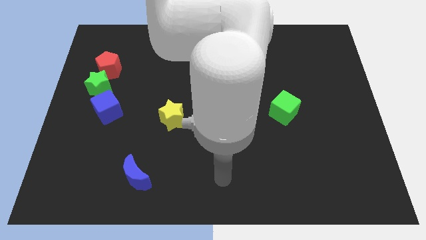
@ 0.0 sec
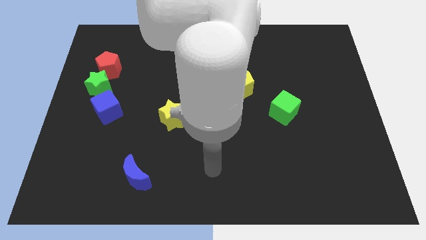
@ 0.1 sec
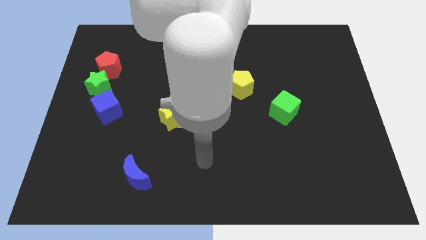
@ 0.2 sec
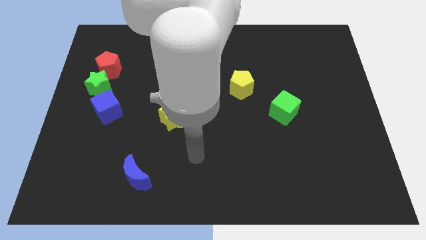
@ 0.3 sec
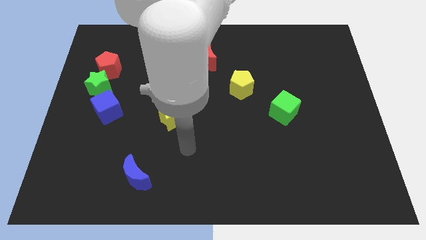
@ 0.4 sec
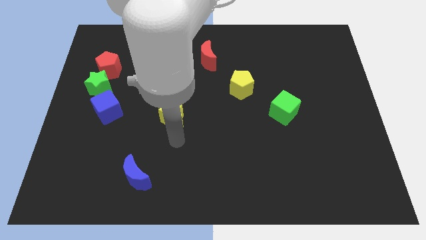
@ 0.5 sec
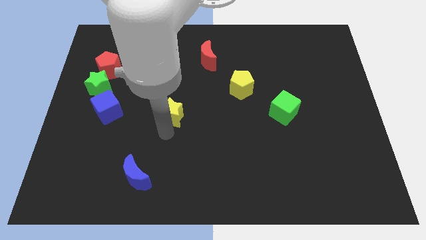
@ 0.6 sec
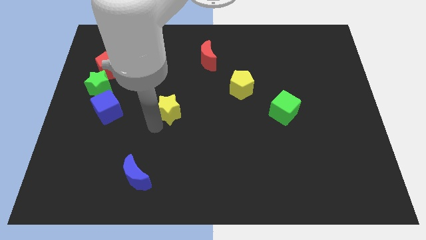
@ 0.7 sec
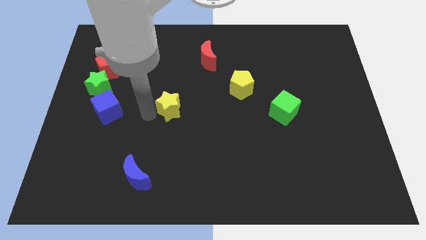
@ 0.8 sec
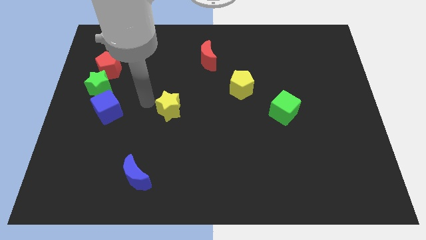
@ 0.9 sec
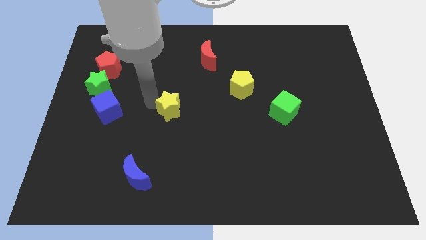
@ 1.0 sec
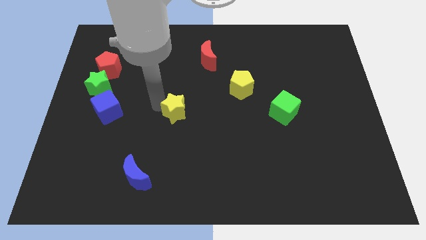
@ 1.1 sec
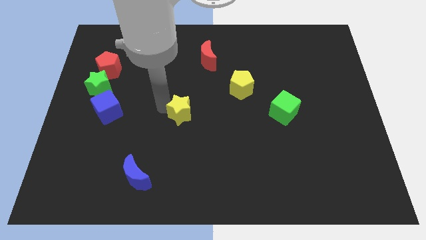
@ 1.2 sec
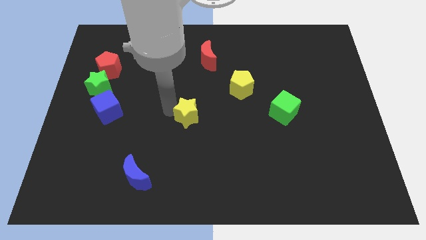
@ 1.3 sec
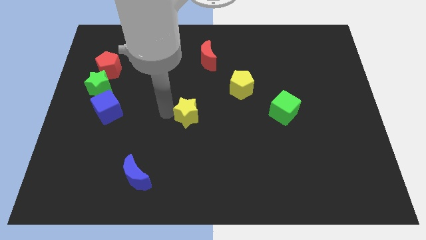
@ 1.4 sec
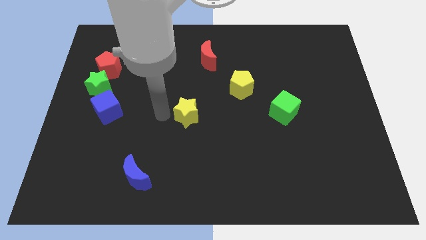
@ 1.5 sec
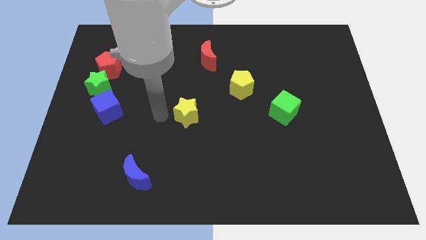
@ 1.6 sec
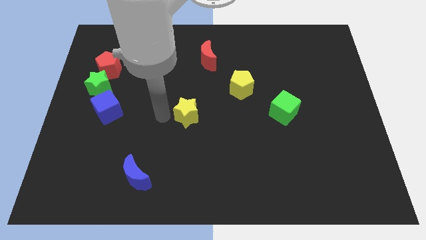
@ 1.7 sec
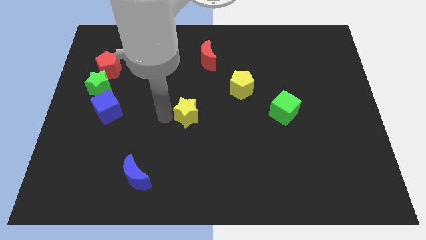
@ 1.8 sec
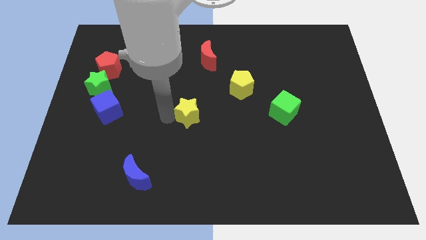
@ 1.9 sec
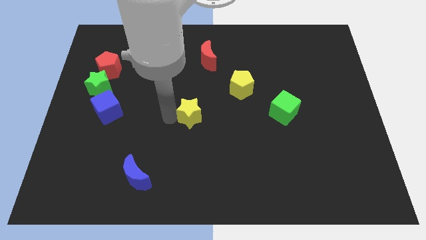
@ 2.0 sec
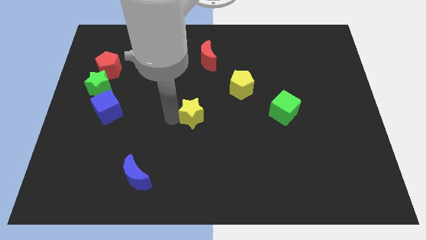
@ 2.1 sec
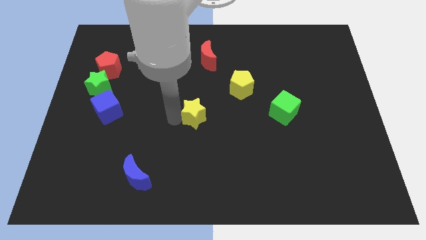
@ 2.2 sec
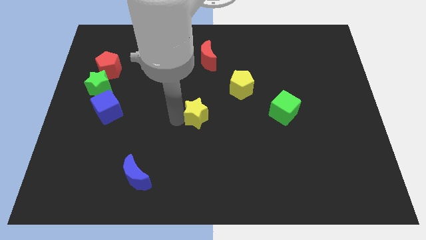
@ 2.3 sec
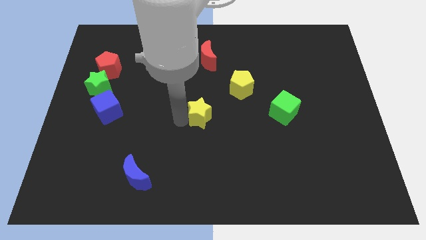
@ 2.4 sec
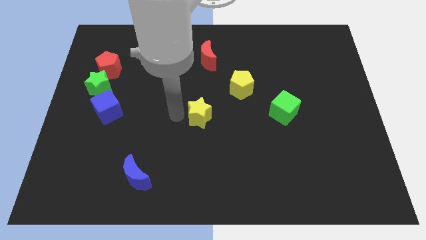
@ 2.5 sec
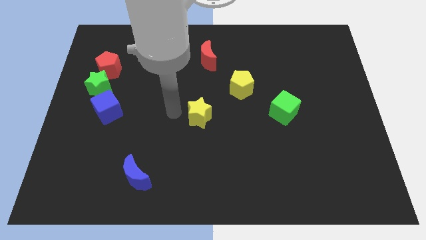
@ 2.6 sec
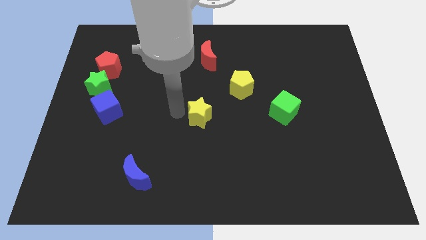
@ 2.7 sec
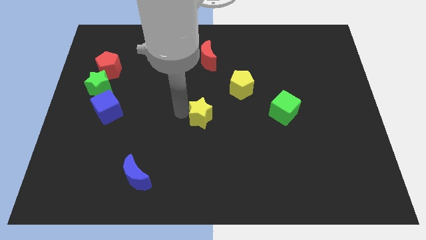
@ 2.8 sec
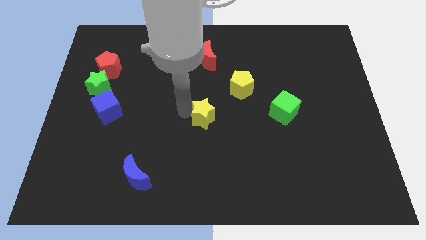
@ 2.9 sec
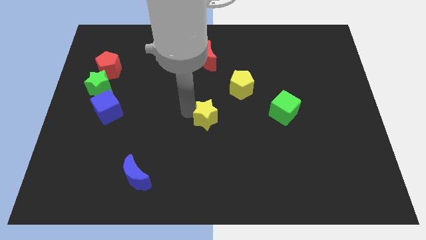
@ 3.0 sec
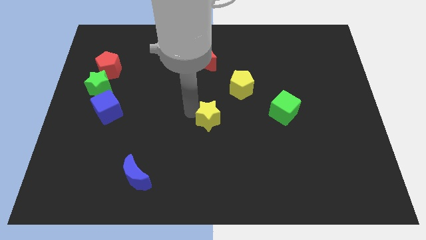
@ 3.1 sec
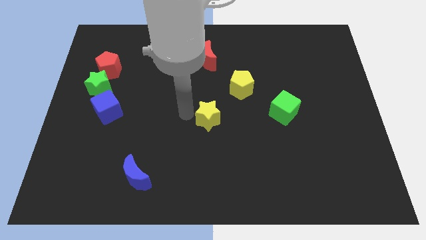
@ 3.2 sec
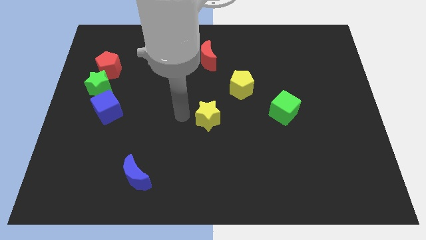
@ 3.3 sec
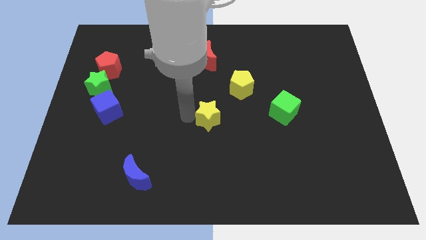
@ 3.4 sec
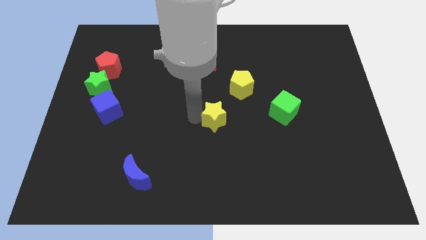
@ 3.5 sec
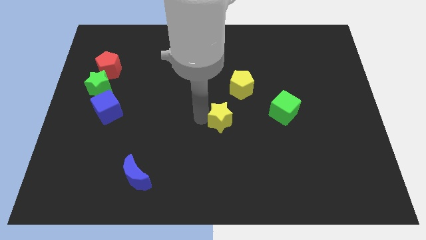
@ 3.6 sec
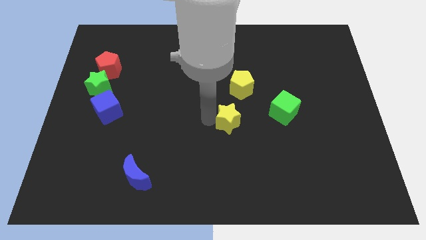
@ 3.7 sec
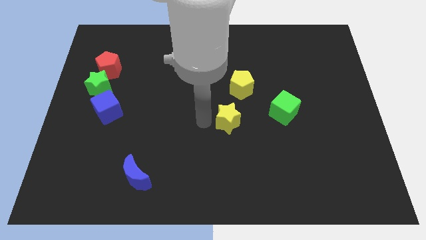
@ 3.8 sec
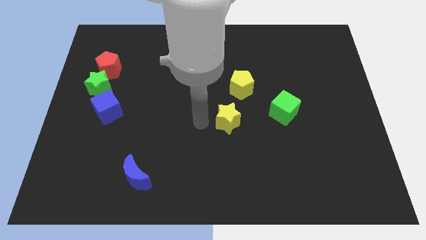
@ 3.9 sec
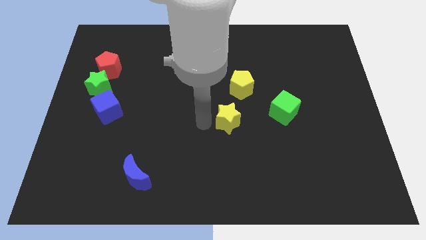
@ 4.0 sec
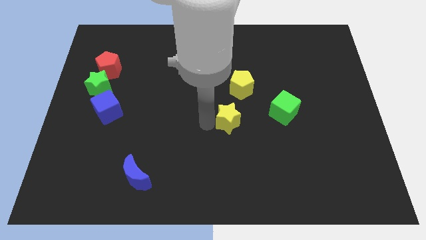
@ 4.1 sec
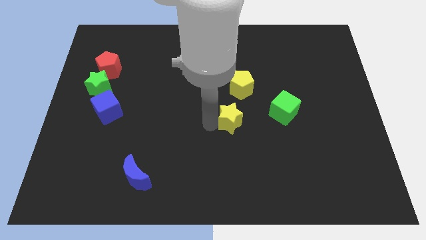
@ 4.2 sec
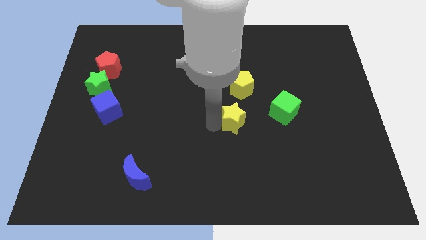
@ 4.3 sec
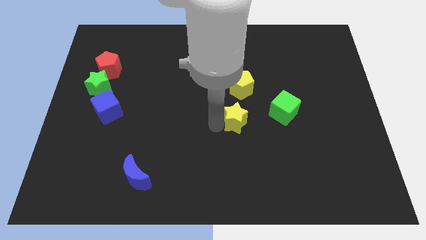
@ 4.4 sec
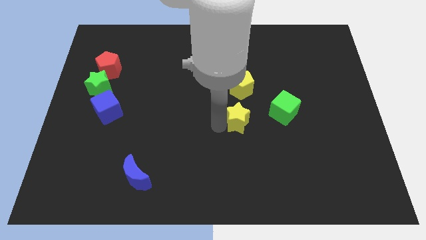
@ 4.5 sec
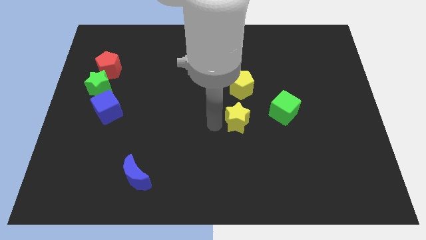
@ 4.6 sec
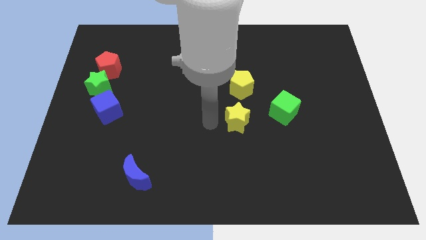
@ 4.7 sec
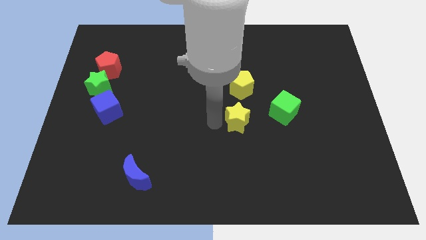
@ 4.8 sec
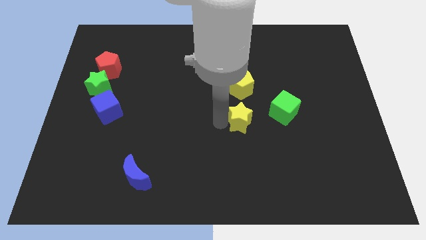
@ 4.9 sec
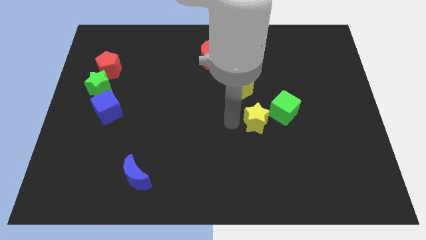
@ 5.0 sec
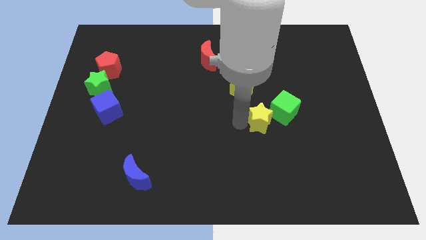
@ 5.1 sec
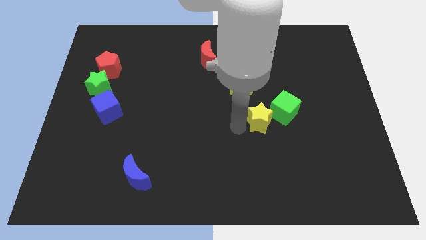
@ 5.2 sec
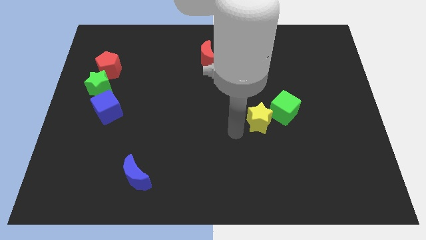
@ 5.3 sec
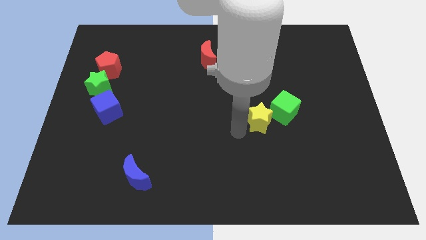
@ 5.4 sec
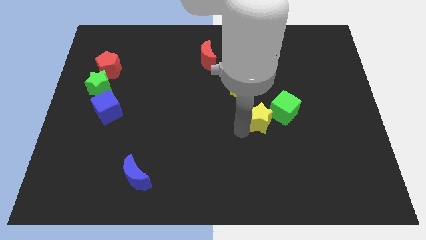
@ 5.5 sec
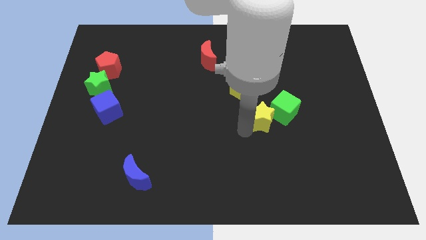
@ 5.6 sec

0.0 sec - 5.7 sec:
slide the yellow star close to the green cube
